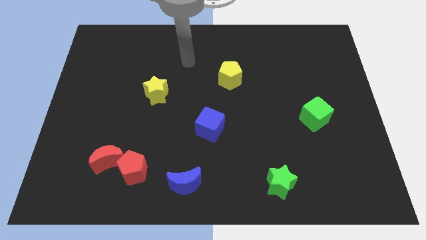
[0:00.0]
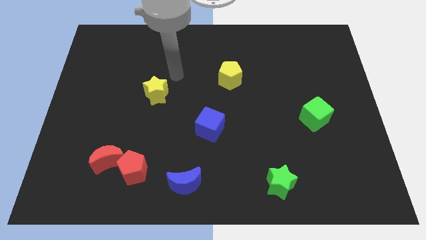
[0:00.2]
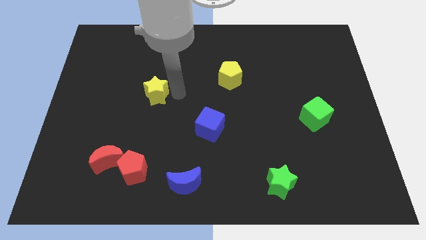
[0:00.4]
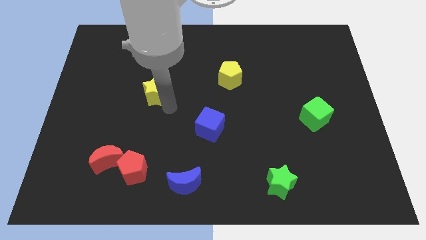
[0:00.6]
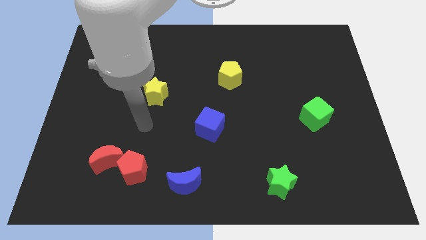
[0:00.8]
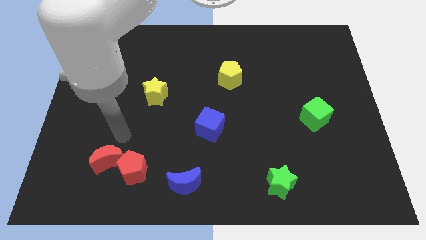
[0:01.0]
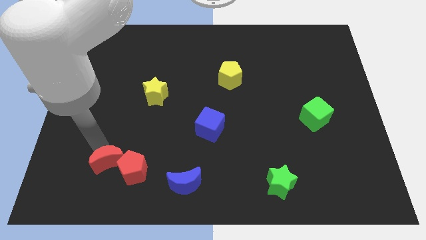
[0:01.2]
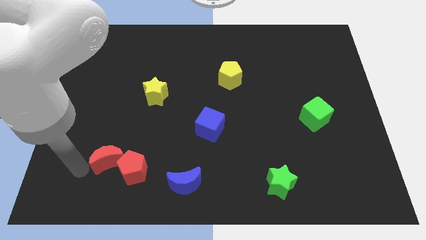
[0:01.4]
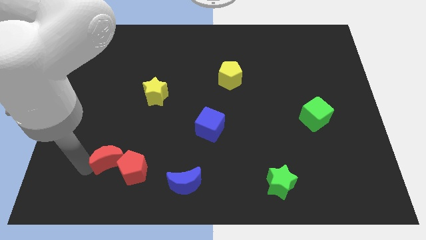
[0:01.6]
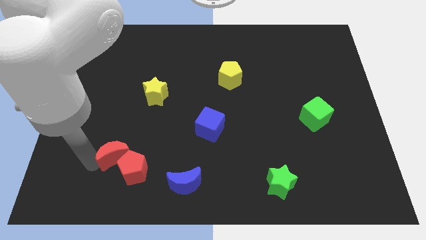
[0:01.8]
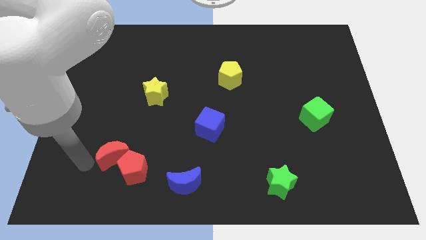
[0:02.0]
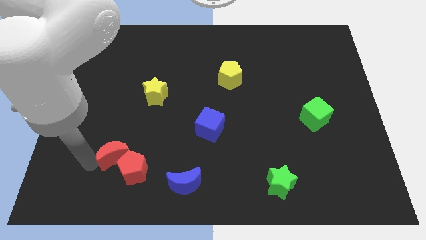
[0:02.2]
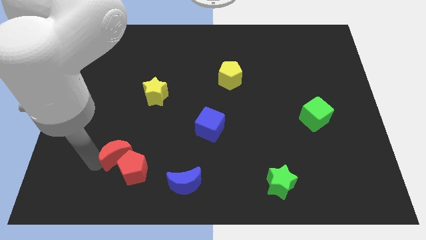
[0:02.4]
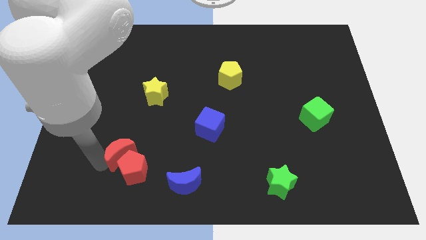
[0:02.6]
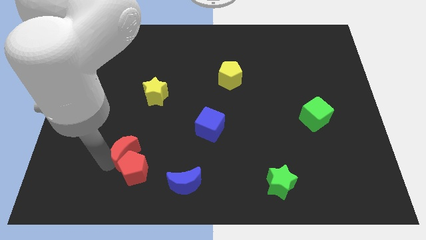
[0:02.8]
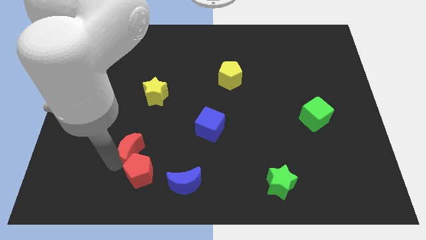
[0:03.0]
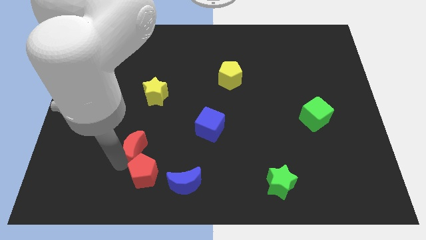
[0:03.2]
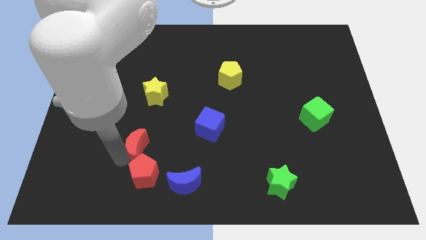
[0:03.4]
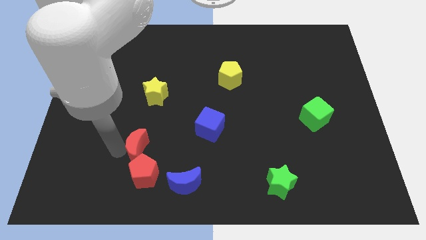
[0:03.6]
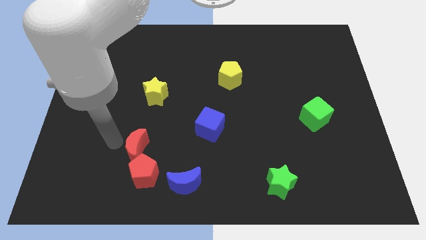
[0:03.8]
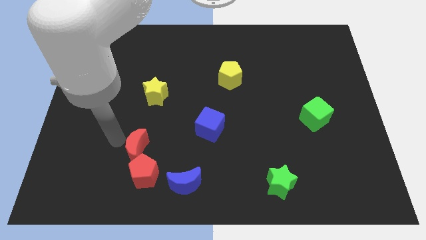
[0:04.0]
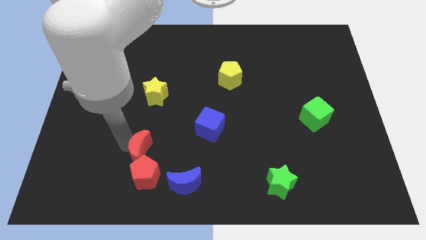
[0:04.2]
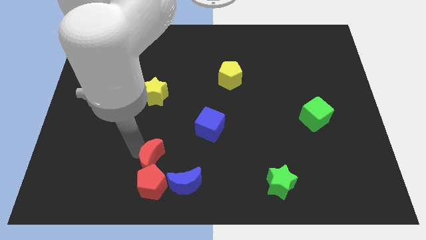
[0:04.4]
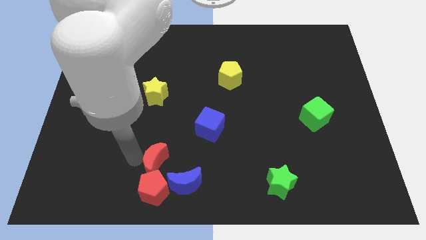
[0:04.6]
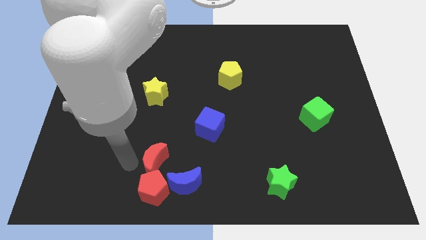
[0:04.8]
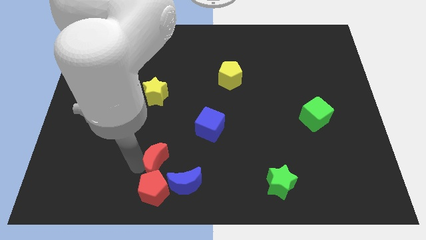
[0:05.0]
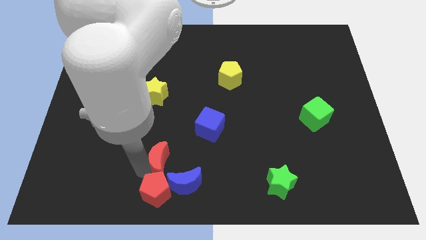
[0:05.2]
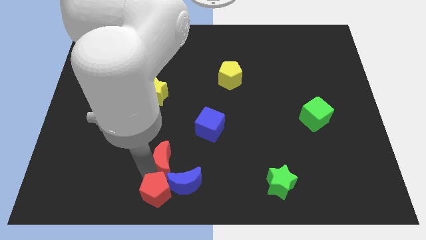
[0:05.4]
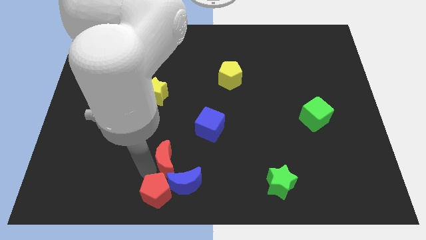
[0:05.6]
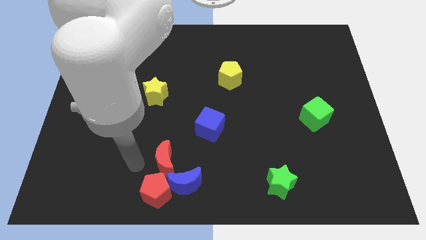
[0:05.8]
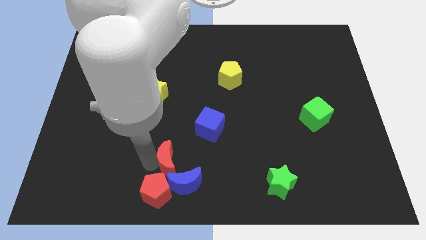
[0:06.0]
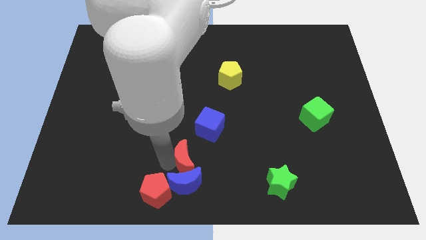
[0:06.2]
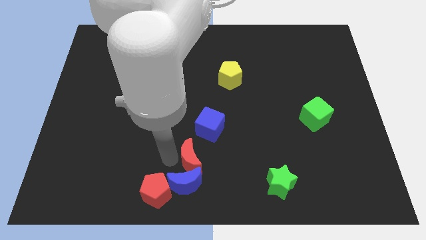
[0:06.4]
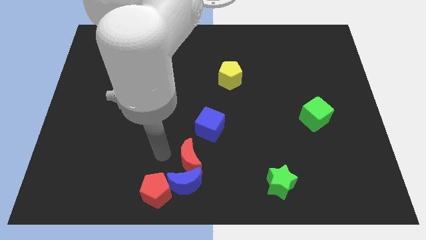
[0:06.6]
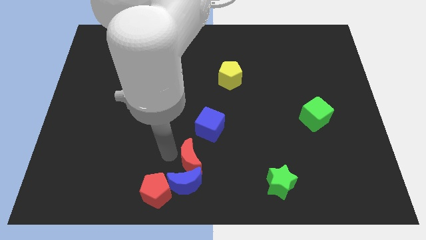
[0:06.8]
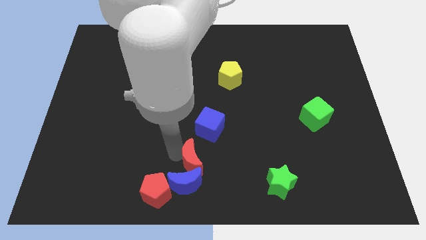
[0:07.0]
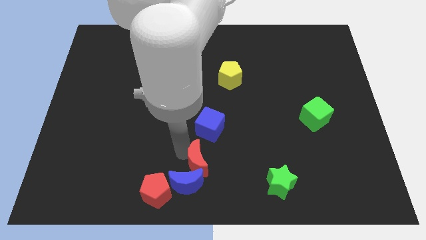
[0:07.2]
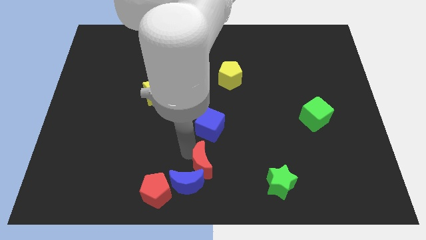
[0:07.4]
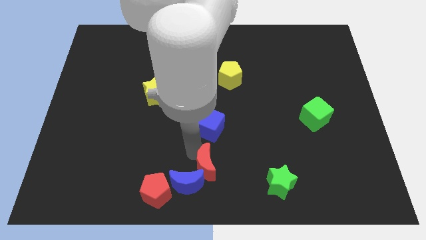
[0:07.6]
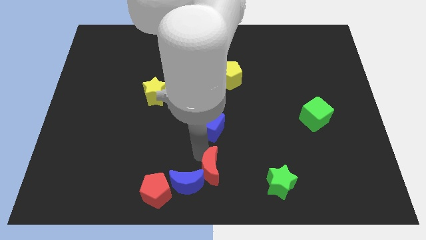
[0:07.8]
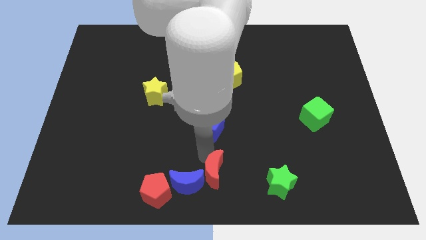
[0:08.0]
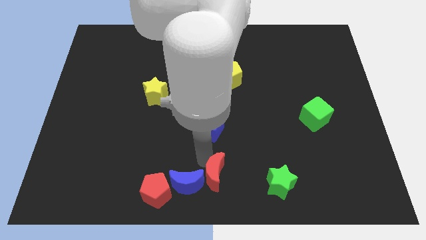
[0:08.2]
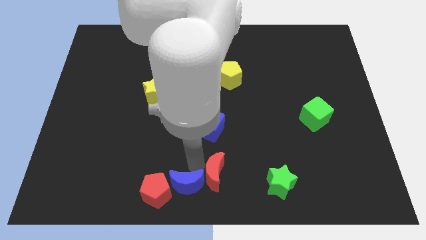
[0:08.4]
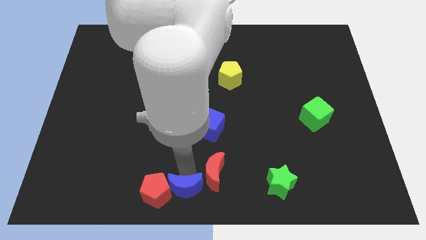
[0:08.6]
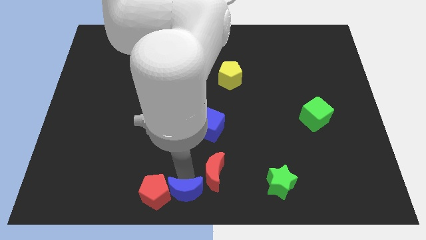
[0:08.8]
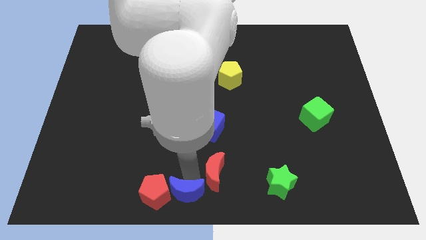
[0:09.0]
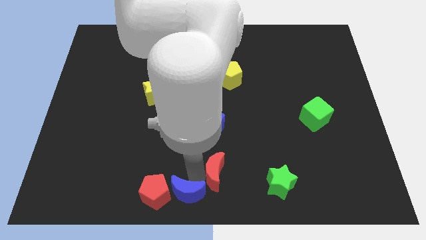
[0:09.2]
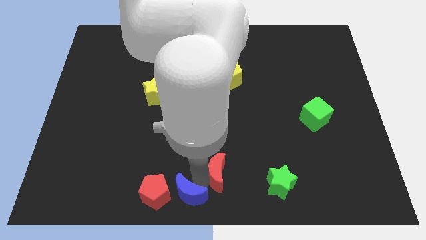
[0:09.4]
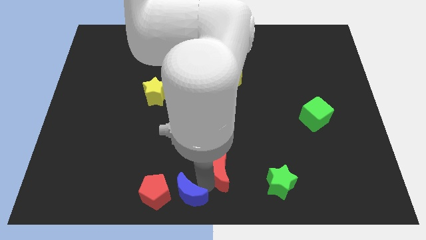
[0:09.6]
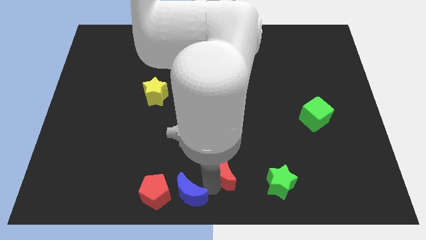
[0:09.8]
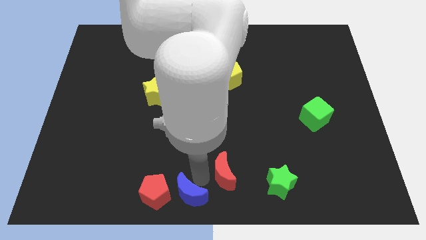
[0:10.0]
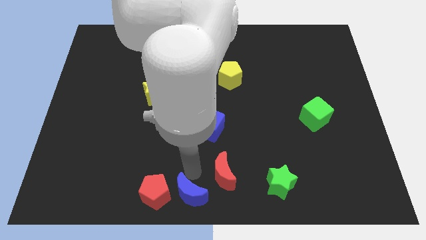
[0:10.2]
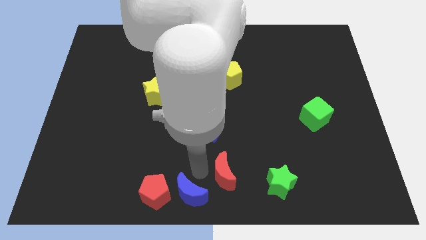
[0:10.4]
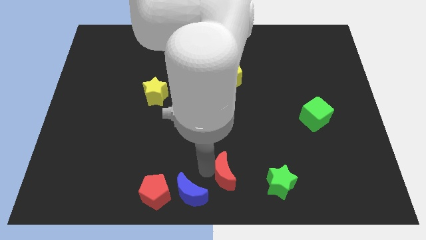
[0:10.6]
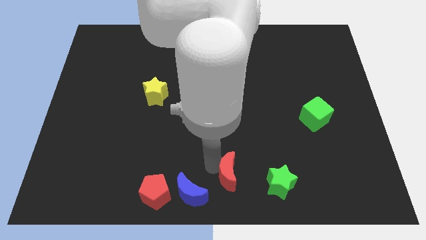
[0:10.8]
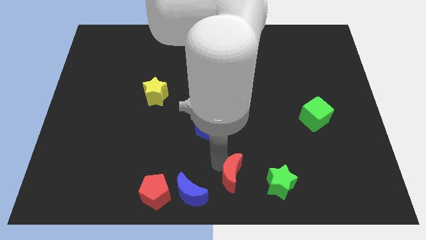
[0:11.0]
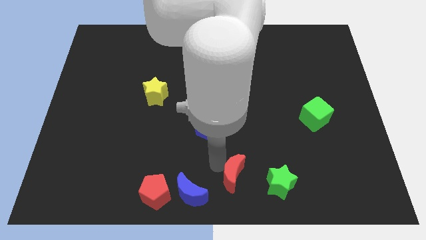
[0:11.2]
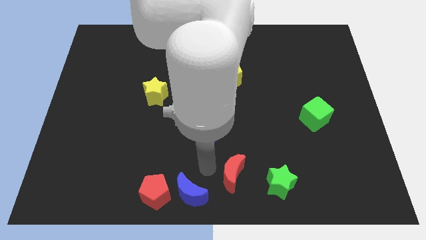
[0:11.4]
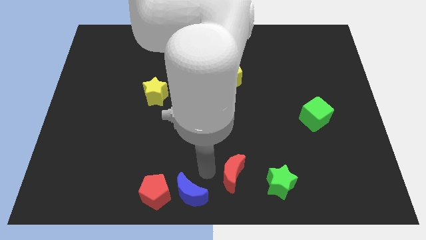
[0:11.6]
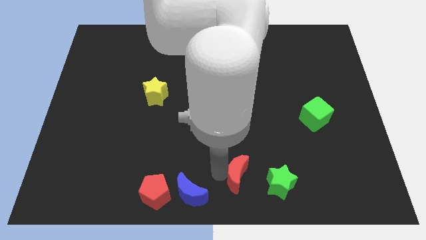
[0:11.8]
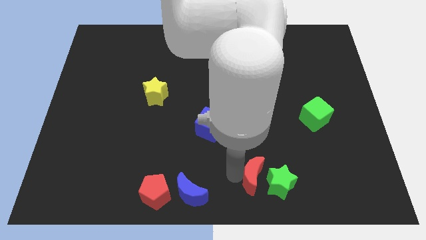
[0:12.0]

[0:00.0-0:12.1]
move the red moon next to the green star

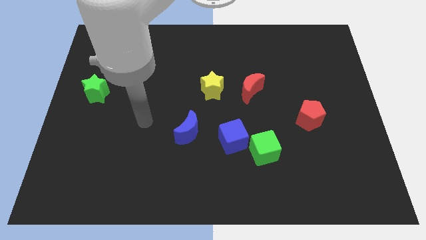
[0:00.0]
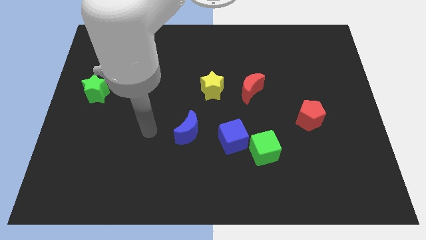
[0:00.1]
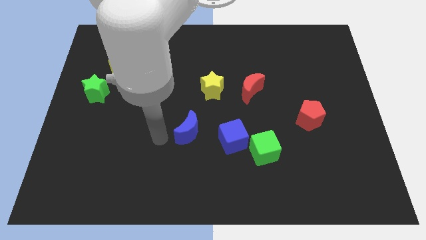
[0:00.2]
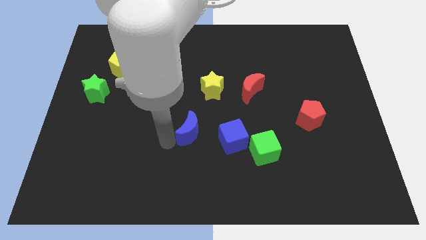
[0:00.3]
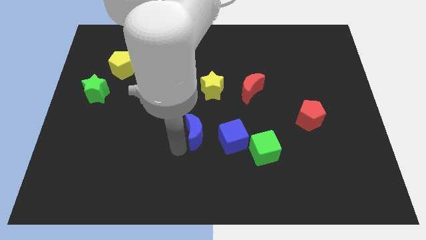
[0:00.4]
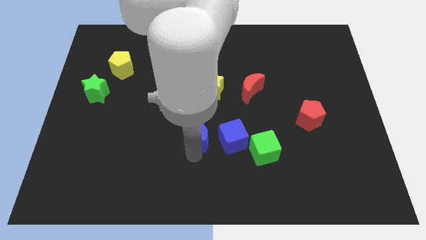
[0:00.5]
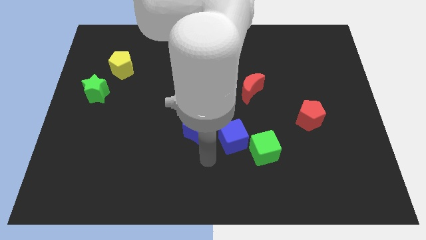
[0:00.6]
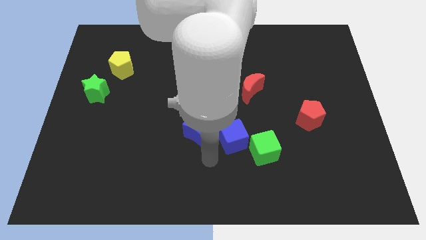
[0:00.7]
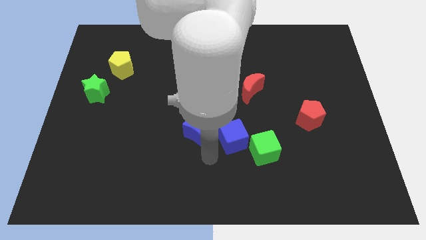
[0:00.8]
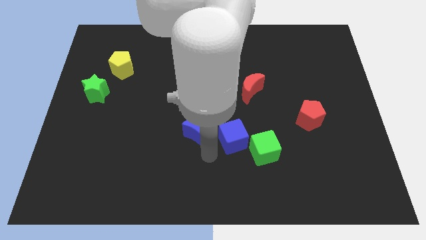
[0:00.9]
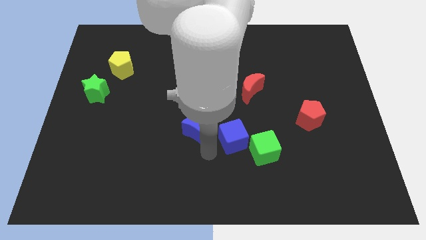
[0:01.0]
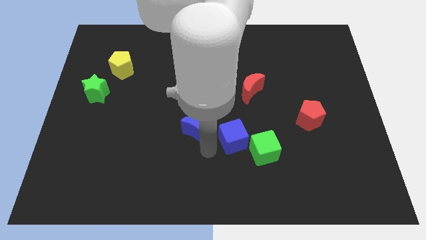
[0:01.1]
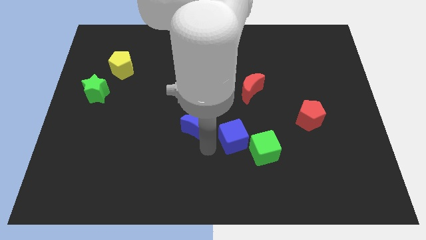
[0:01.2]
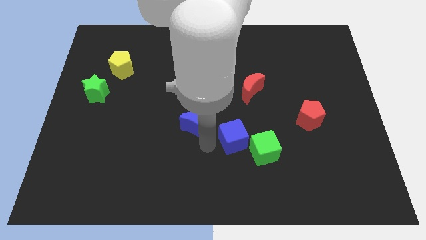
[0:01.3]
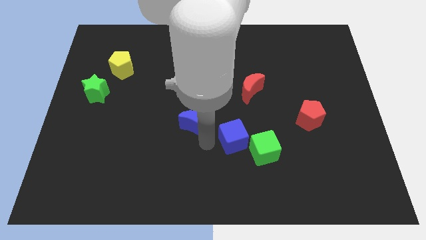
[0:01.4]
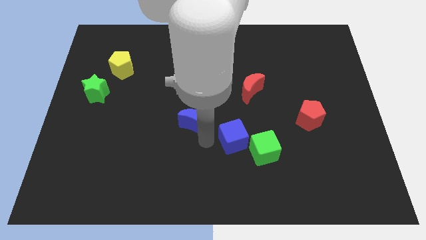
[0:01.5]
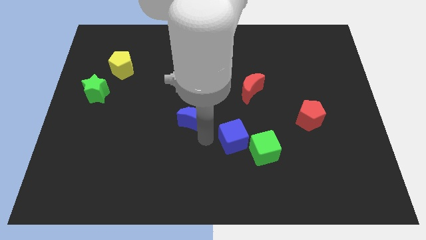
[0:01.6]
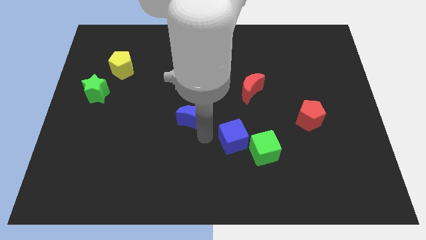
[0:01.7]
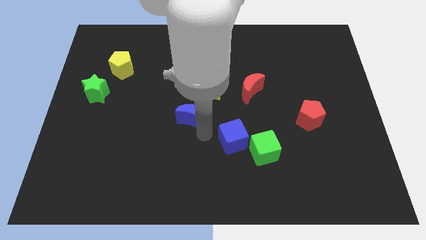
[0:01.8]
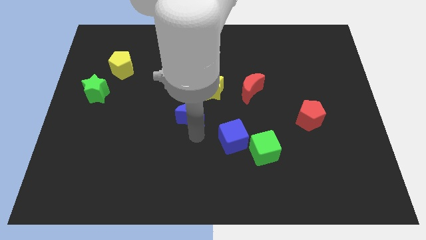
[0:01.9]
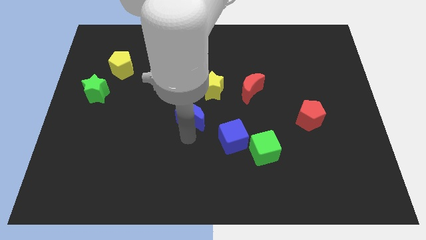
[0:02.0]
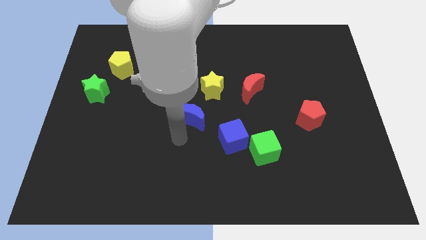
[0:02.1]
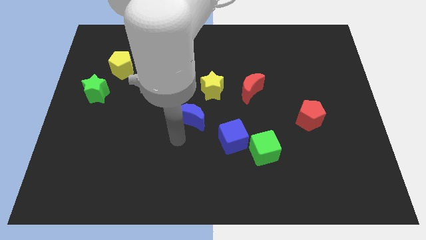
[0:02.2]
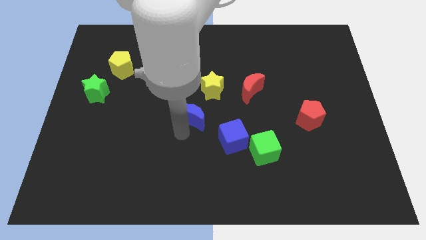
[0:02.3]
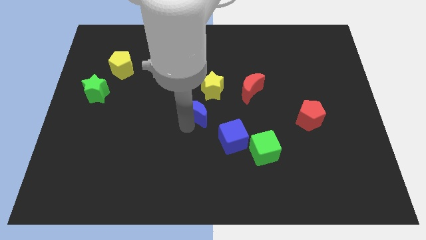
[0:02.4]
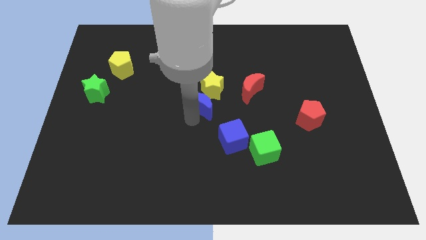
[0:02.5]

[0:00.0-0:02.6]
push the blue moon next to the yellow star
